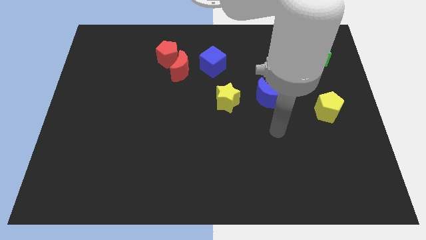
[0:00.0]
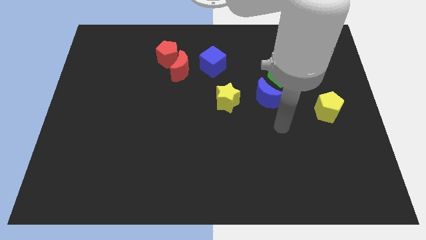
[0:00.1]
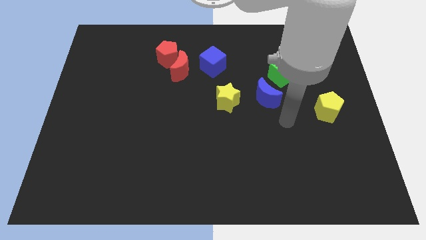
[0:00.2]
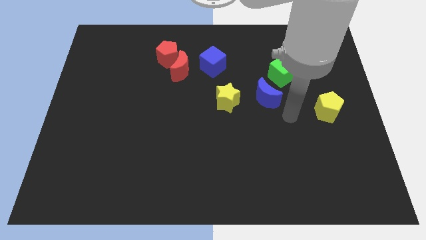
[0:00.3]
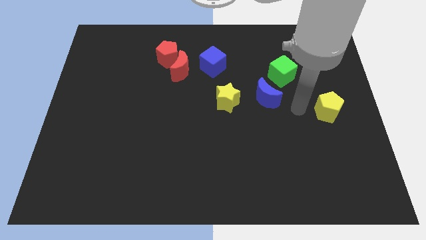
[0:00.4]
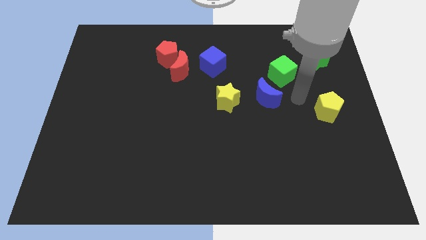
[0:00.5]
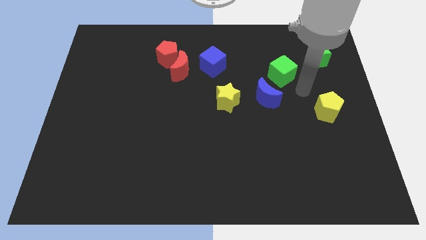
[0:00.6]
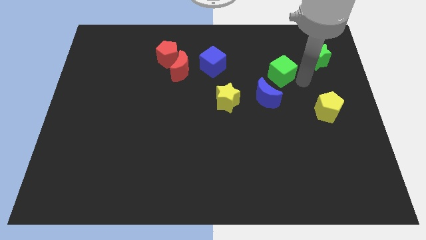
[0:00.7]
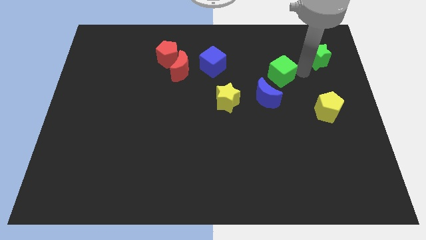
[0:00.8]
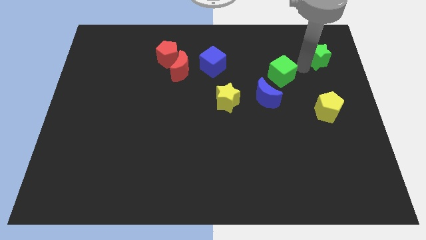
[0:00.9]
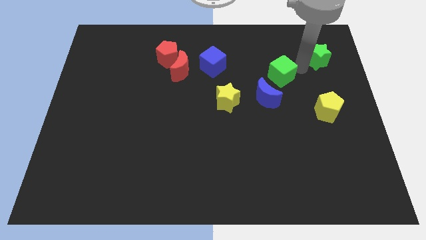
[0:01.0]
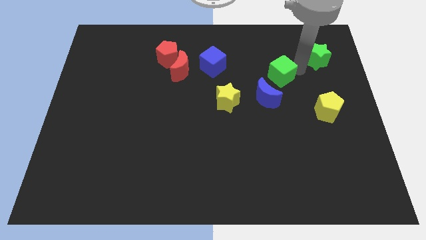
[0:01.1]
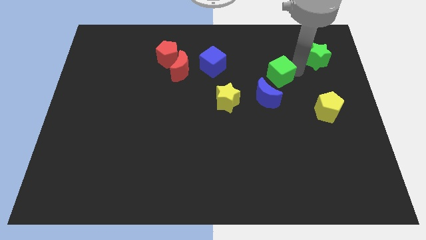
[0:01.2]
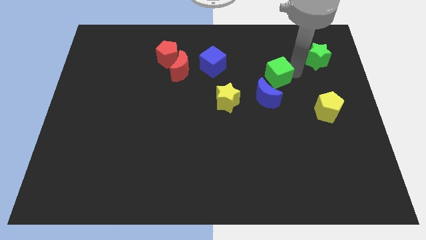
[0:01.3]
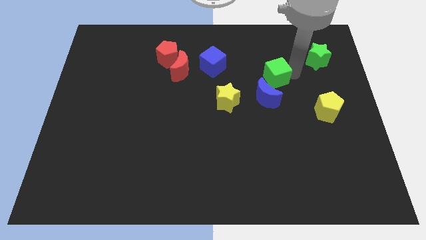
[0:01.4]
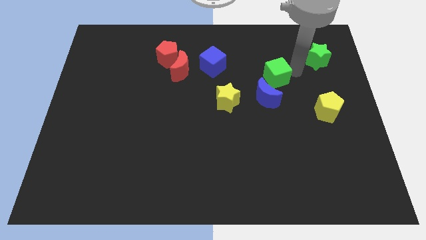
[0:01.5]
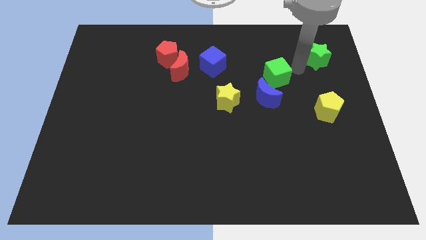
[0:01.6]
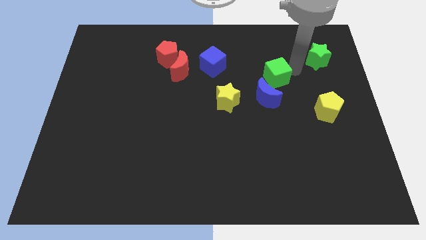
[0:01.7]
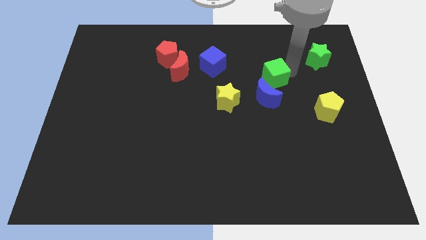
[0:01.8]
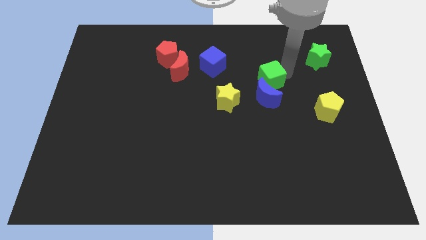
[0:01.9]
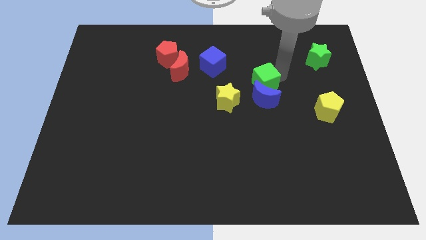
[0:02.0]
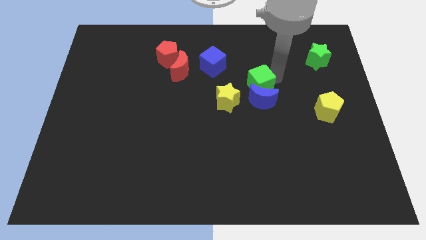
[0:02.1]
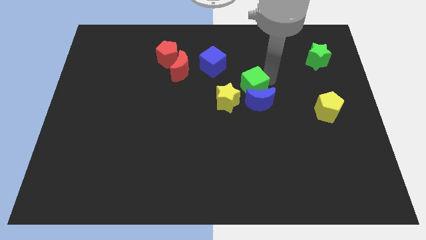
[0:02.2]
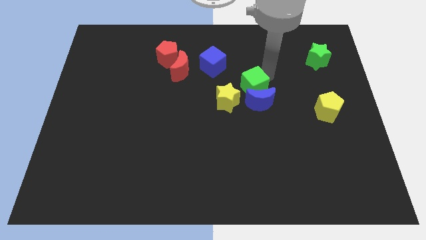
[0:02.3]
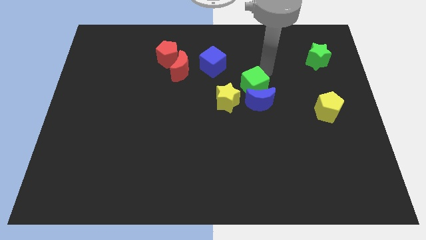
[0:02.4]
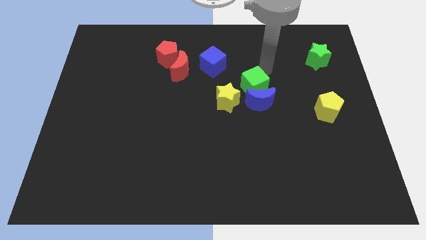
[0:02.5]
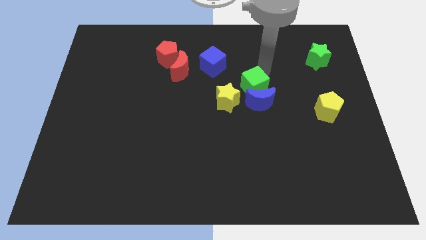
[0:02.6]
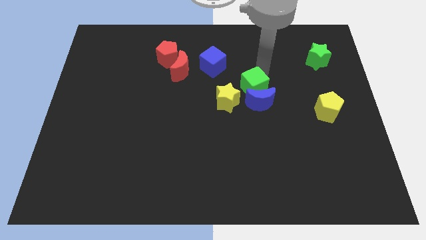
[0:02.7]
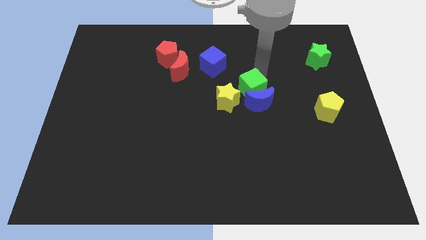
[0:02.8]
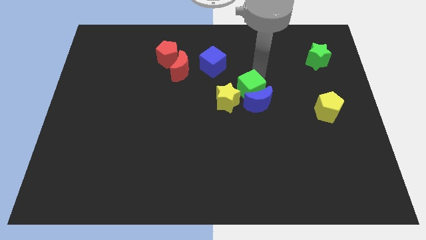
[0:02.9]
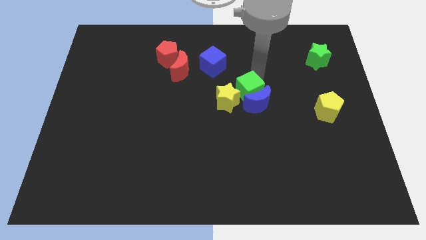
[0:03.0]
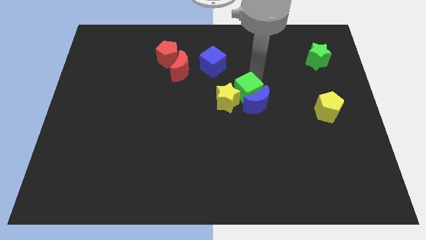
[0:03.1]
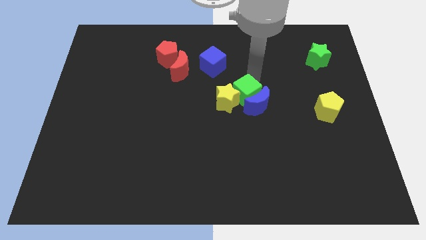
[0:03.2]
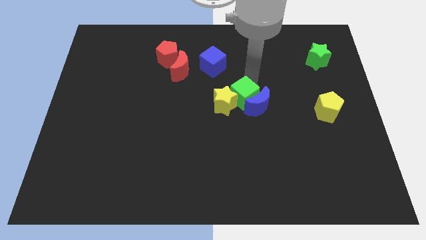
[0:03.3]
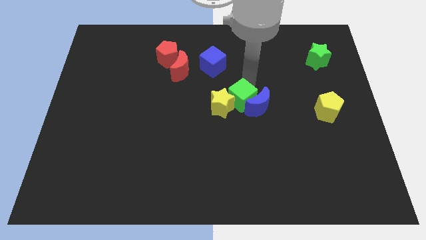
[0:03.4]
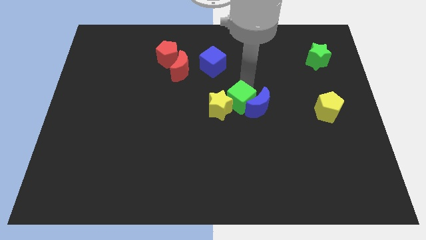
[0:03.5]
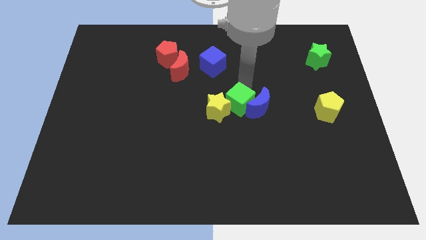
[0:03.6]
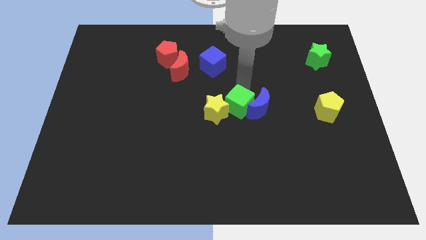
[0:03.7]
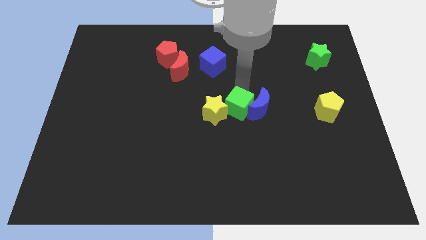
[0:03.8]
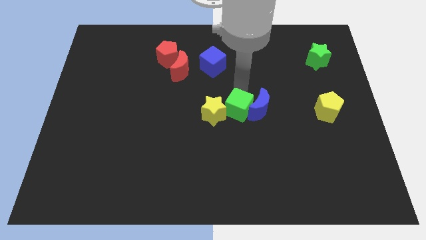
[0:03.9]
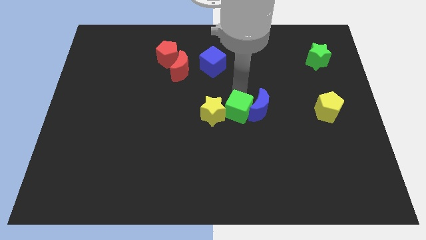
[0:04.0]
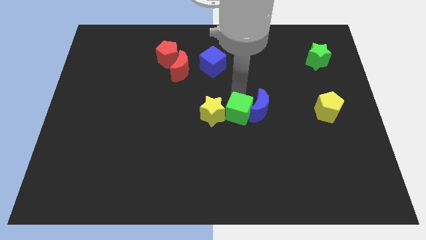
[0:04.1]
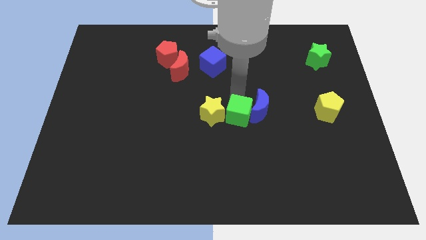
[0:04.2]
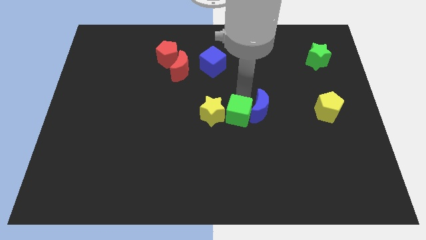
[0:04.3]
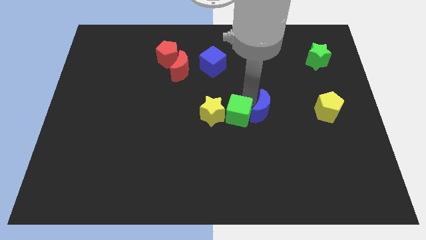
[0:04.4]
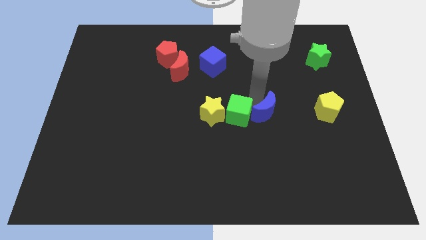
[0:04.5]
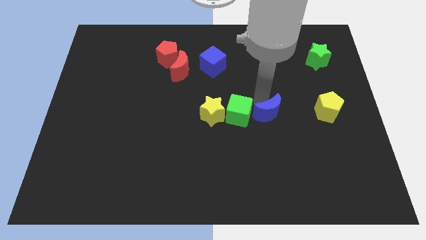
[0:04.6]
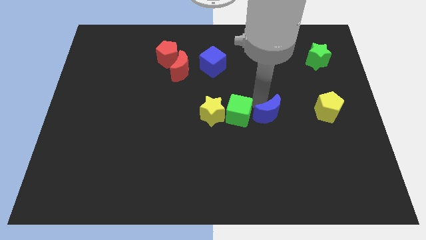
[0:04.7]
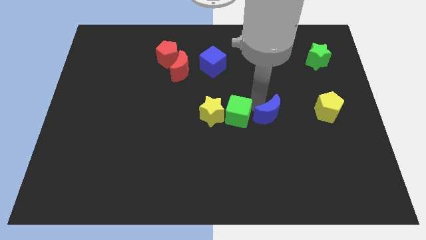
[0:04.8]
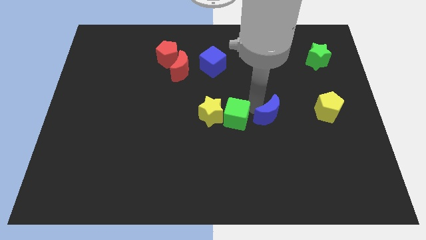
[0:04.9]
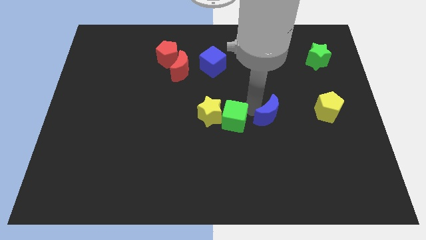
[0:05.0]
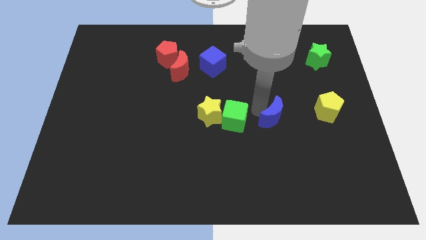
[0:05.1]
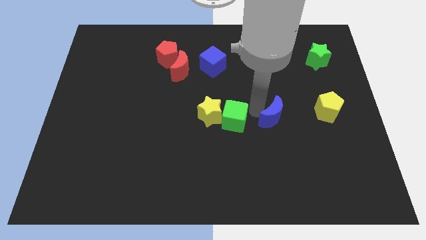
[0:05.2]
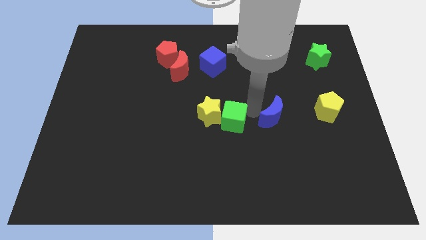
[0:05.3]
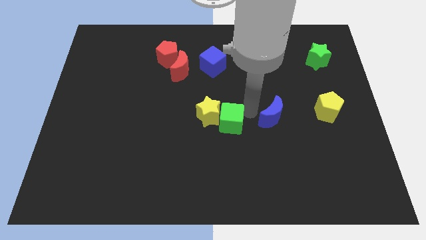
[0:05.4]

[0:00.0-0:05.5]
slide the green cube diagonally down and to the left

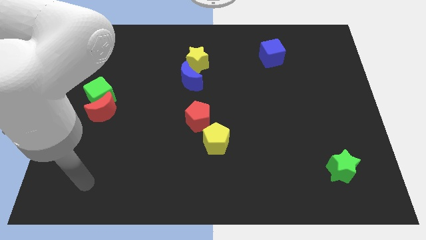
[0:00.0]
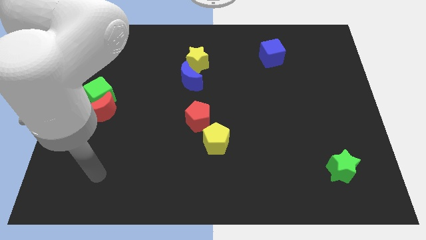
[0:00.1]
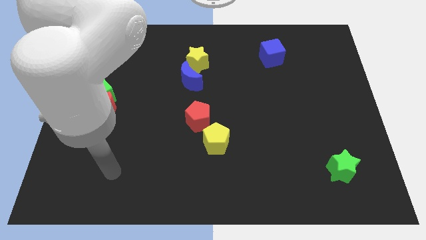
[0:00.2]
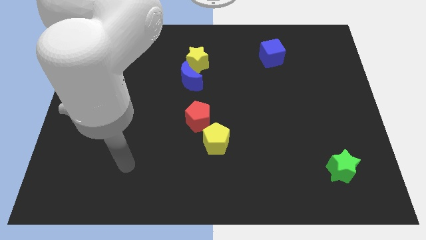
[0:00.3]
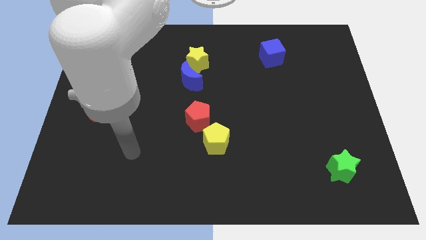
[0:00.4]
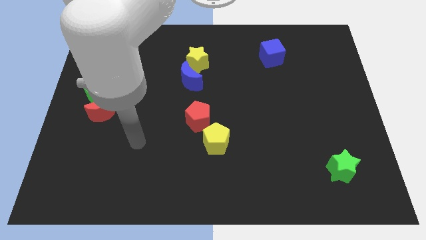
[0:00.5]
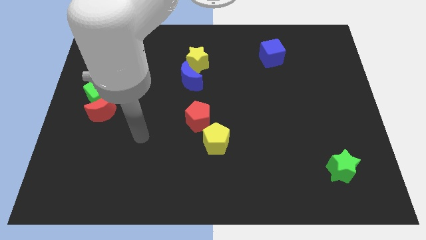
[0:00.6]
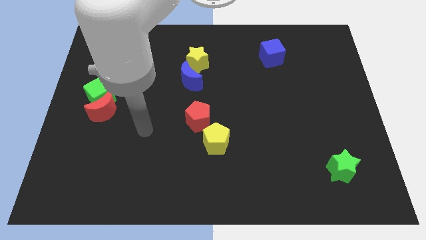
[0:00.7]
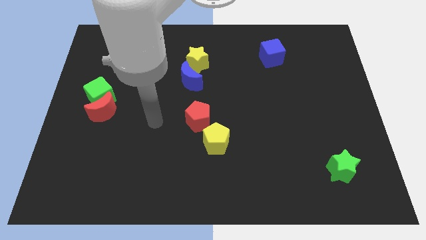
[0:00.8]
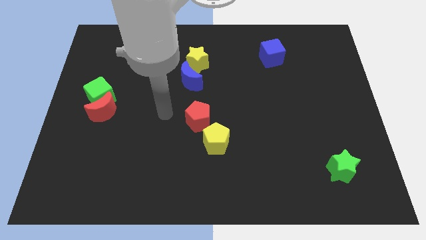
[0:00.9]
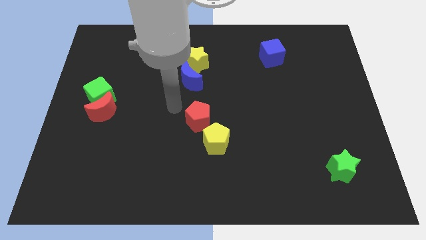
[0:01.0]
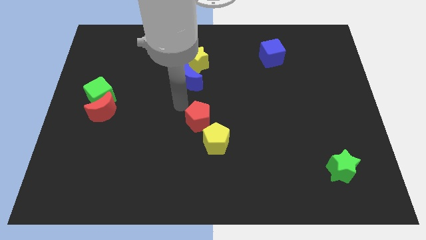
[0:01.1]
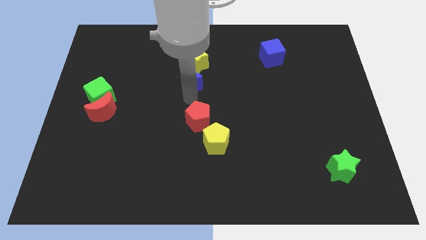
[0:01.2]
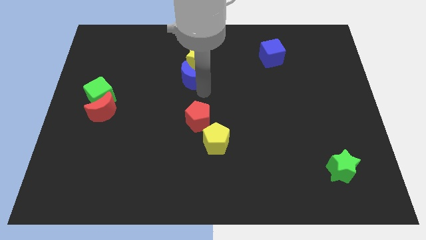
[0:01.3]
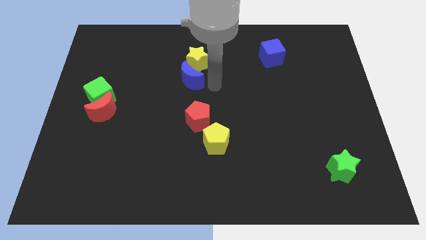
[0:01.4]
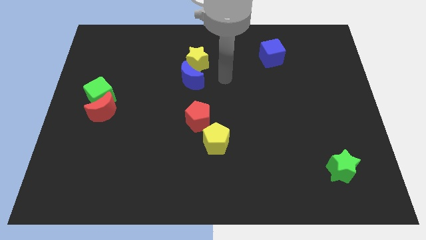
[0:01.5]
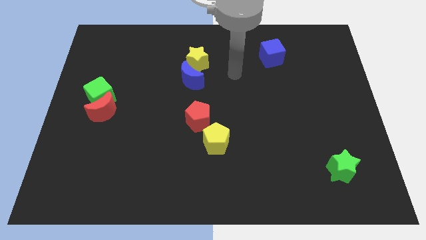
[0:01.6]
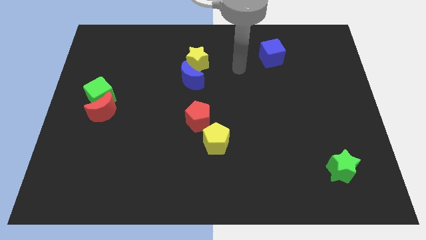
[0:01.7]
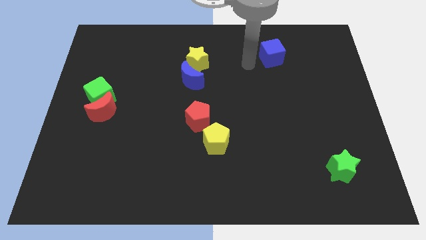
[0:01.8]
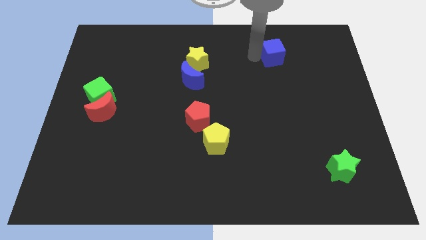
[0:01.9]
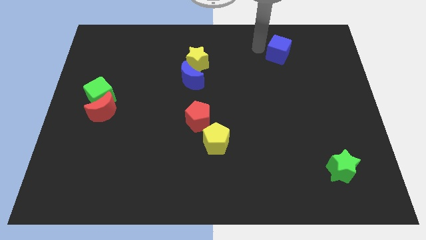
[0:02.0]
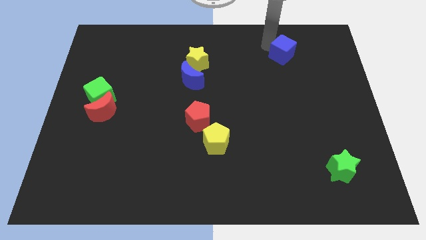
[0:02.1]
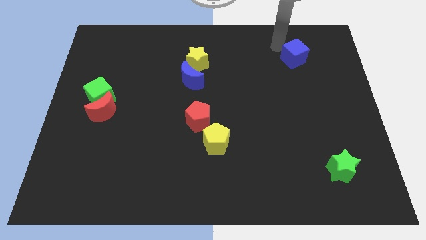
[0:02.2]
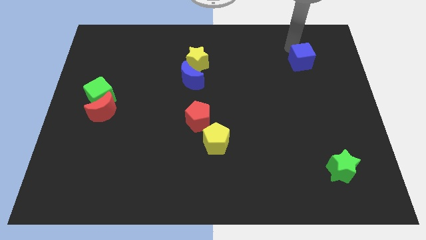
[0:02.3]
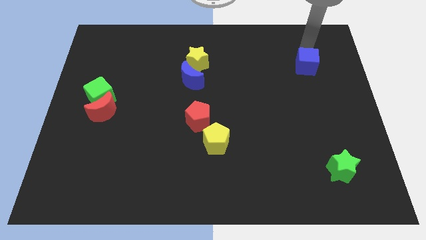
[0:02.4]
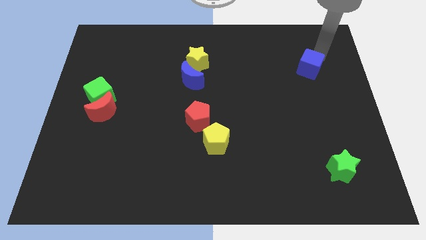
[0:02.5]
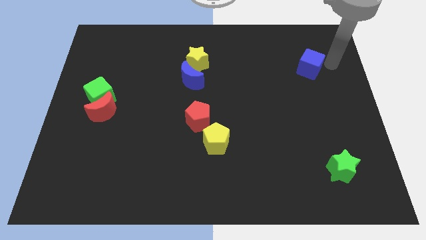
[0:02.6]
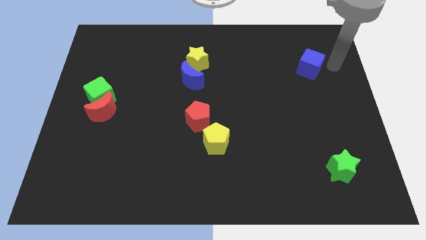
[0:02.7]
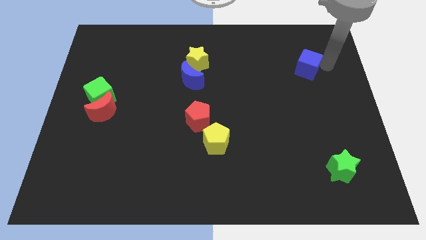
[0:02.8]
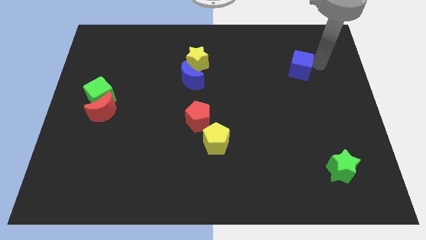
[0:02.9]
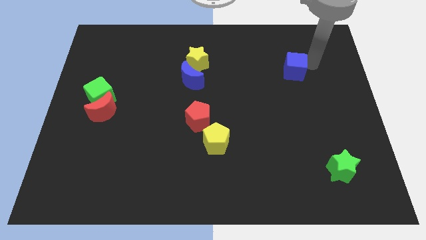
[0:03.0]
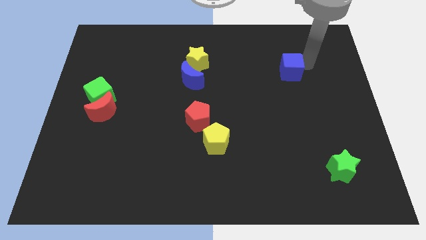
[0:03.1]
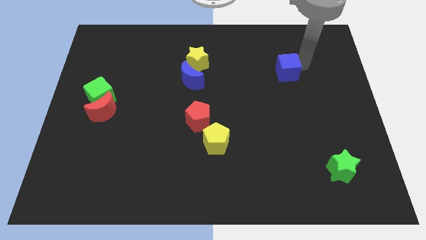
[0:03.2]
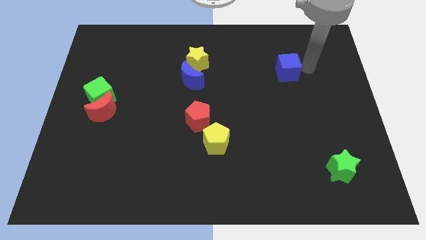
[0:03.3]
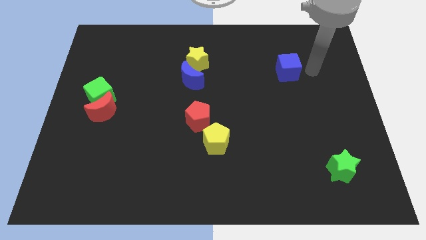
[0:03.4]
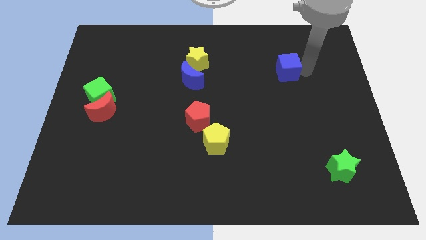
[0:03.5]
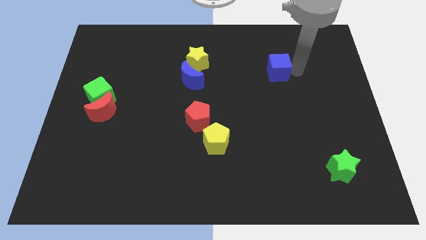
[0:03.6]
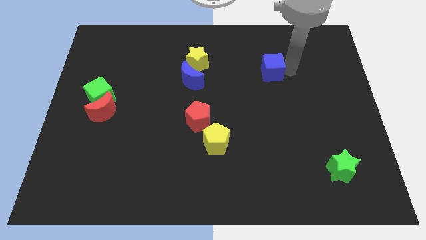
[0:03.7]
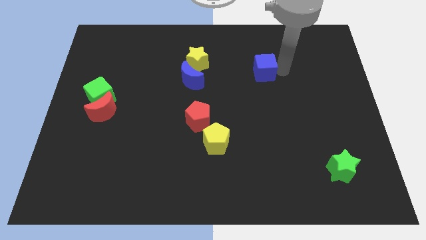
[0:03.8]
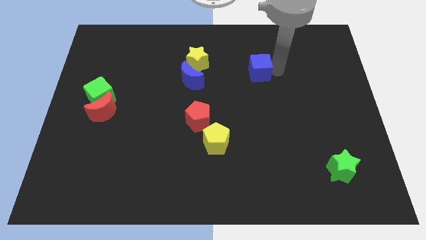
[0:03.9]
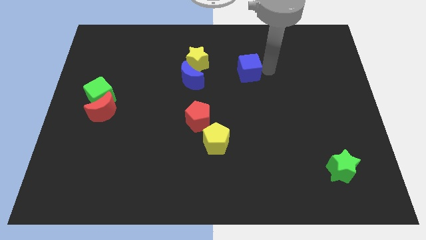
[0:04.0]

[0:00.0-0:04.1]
slightly slide the blue cube diagonally down and to the left
